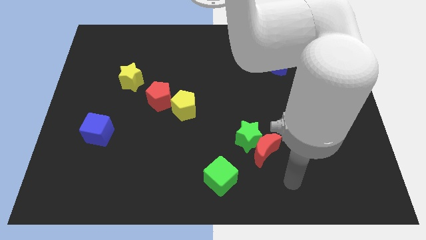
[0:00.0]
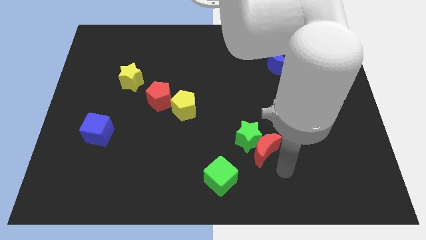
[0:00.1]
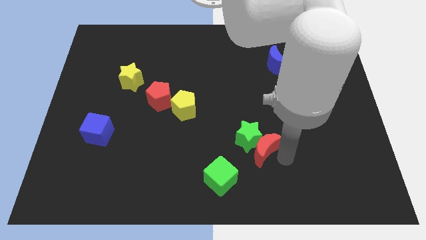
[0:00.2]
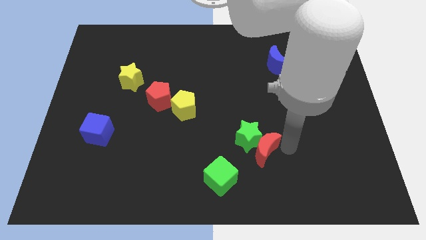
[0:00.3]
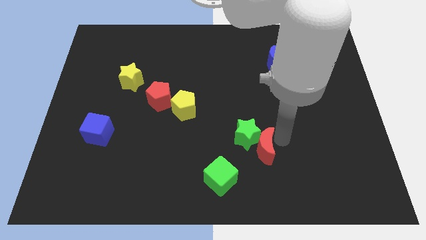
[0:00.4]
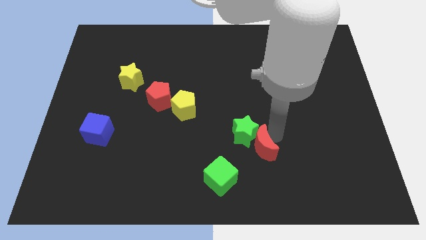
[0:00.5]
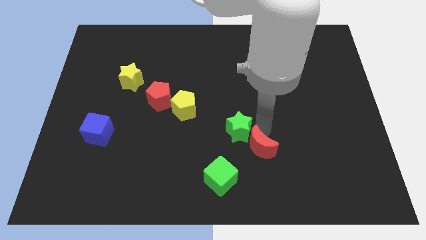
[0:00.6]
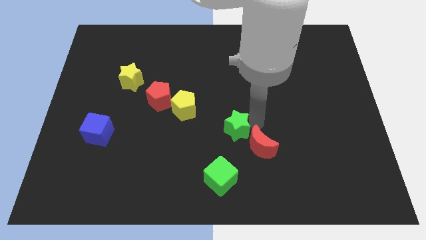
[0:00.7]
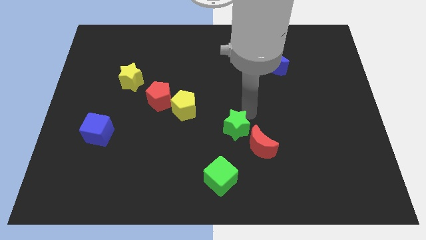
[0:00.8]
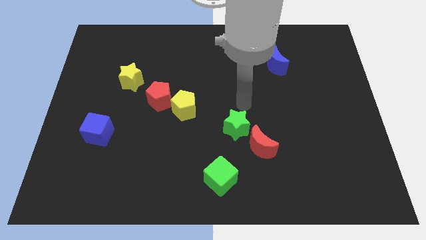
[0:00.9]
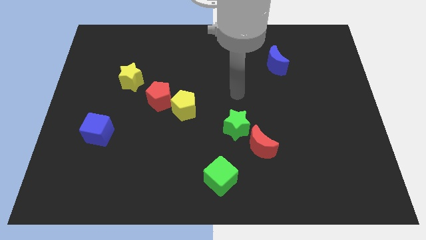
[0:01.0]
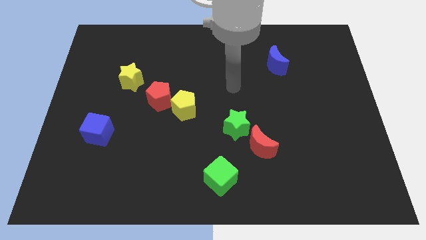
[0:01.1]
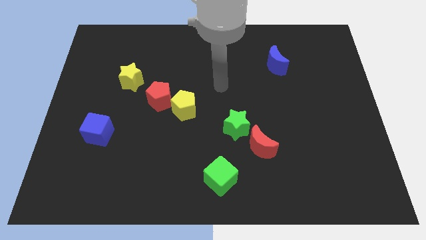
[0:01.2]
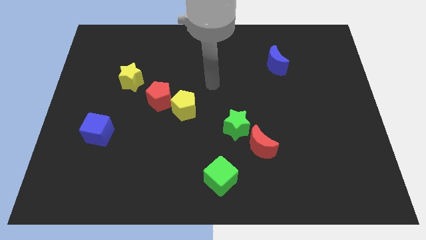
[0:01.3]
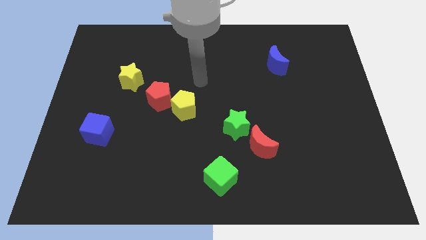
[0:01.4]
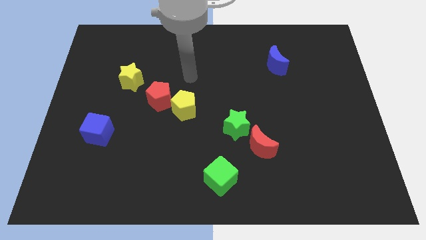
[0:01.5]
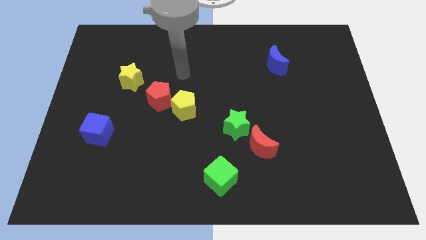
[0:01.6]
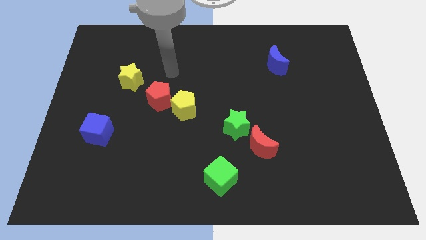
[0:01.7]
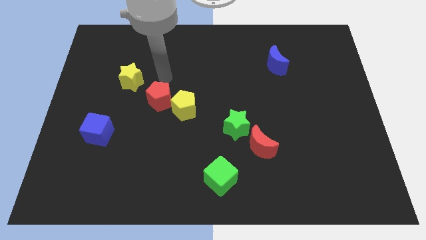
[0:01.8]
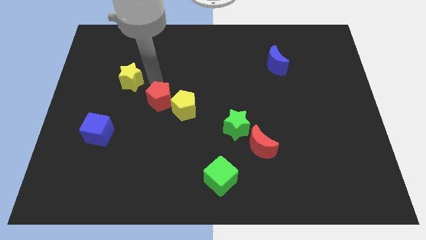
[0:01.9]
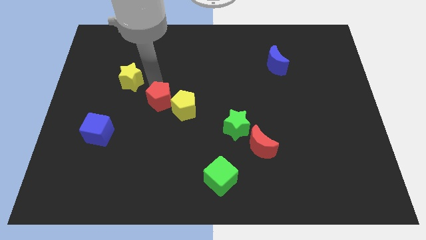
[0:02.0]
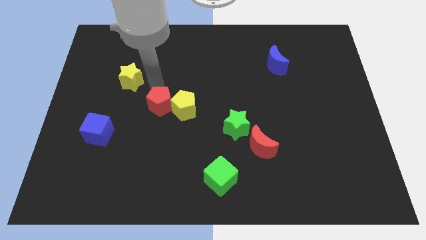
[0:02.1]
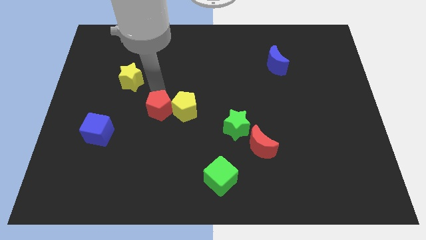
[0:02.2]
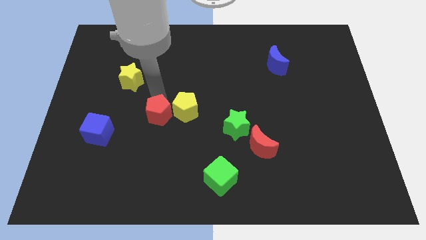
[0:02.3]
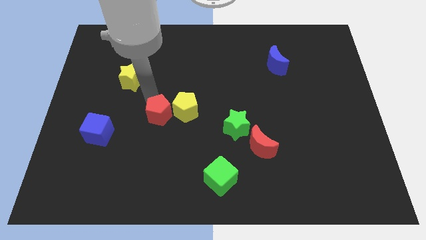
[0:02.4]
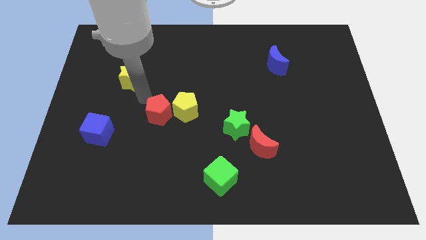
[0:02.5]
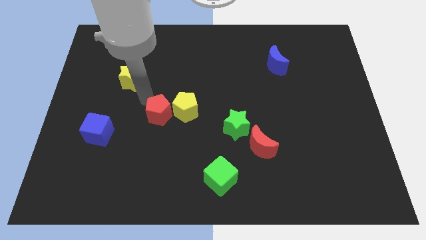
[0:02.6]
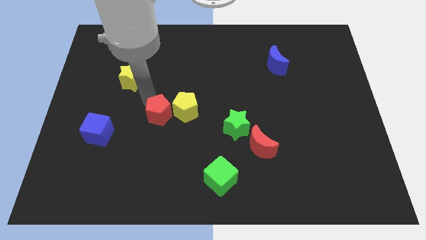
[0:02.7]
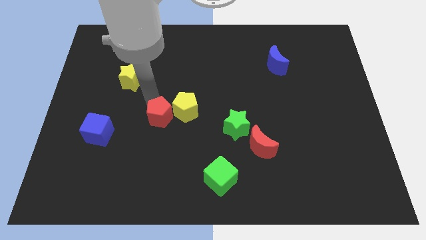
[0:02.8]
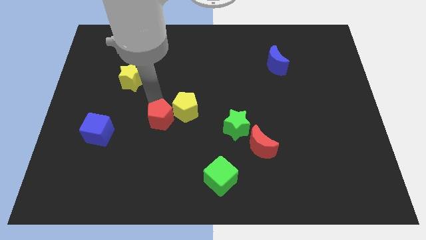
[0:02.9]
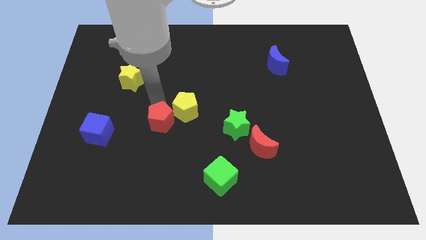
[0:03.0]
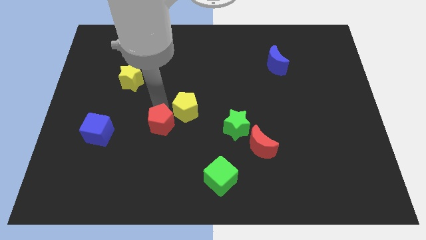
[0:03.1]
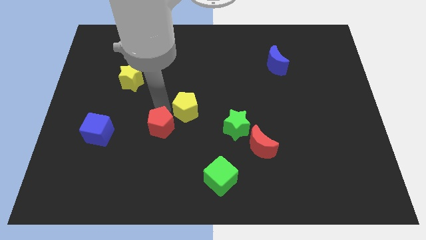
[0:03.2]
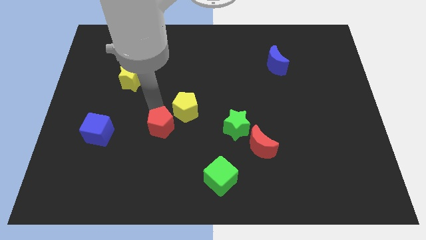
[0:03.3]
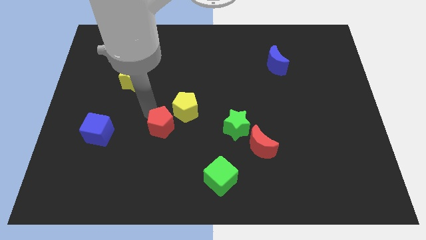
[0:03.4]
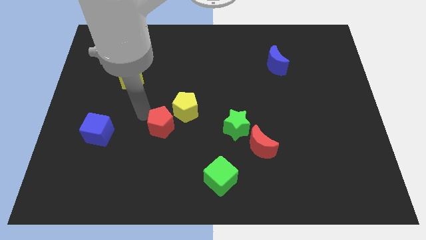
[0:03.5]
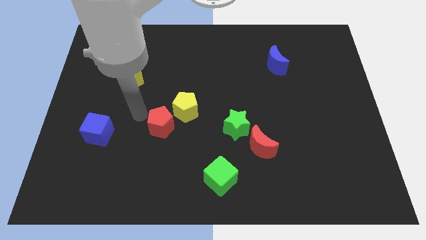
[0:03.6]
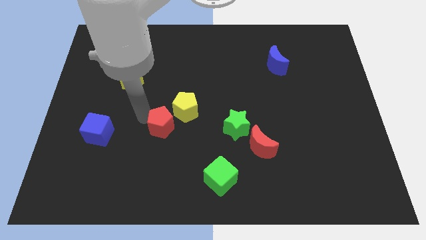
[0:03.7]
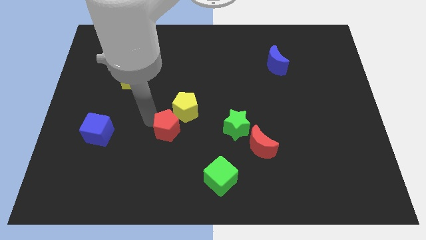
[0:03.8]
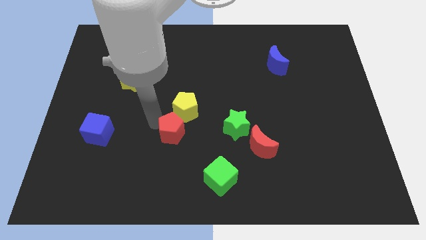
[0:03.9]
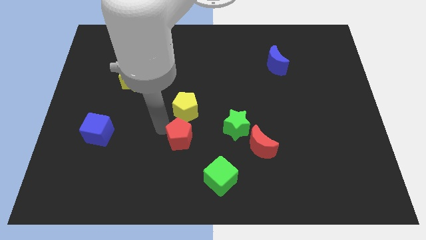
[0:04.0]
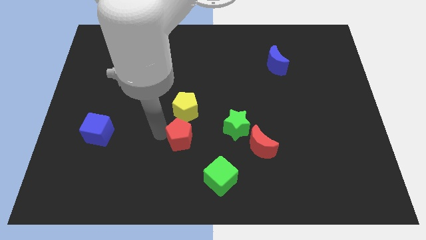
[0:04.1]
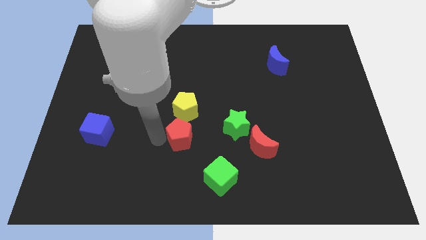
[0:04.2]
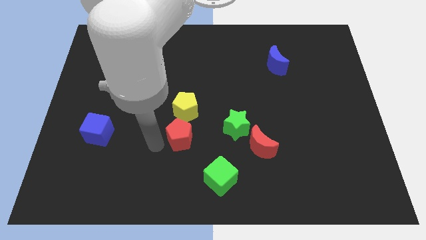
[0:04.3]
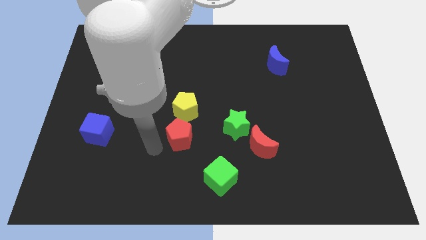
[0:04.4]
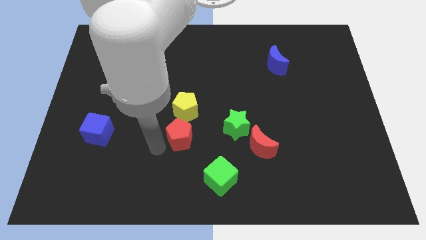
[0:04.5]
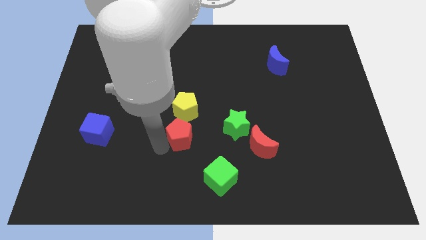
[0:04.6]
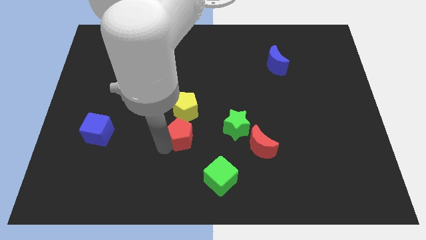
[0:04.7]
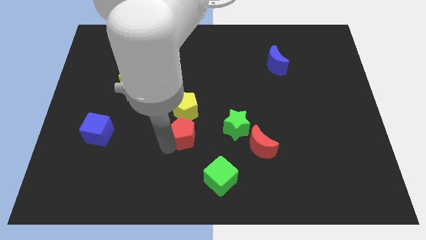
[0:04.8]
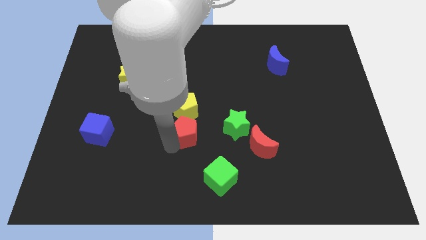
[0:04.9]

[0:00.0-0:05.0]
push the red pentagon to the bottom right of the yellow pentagon

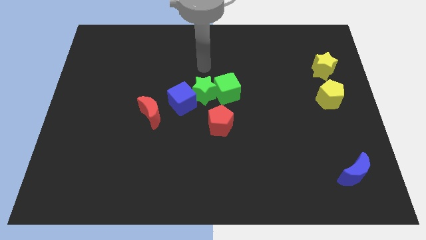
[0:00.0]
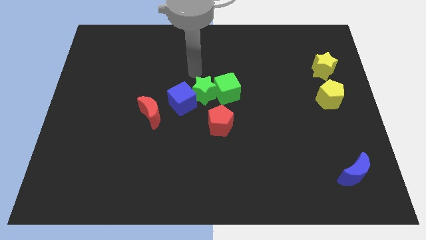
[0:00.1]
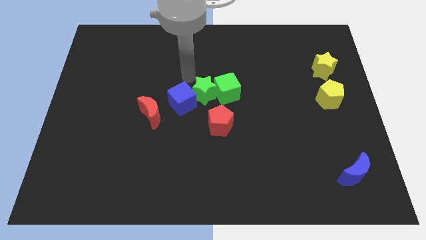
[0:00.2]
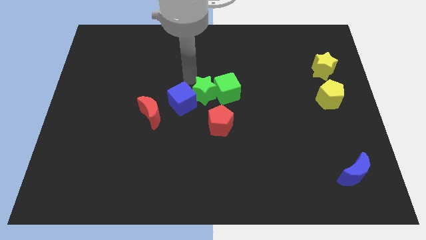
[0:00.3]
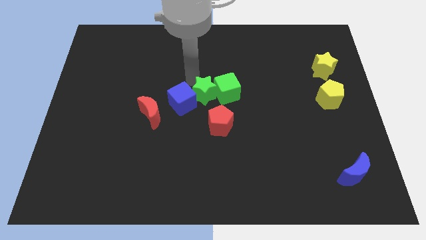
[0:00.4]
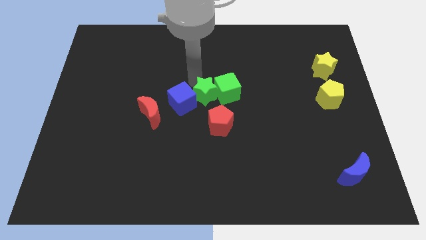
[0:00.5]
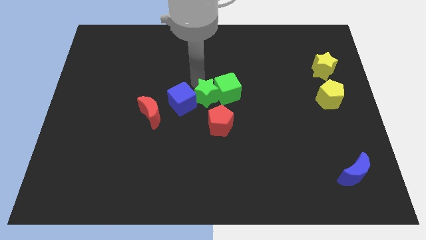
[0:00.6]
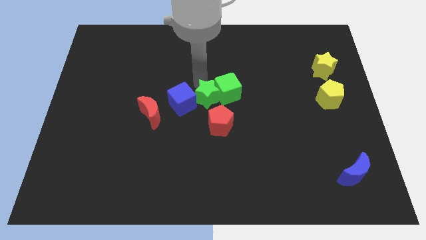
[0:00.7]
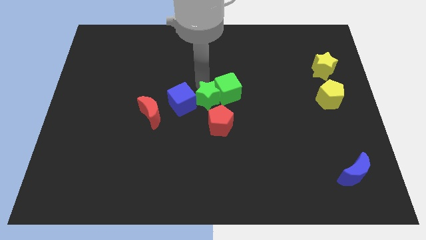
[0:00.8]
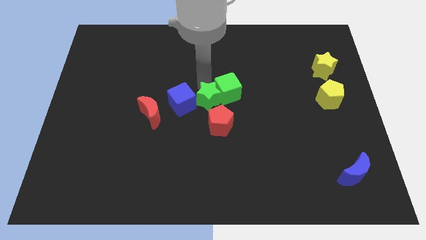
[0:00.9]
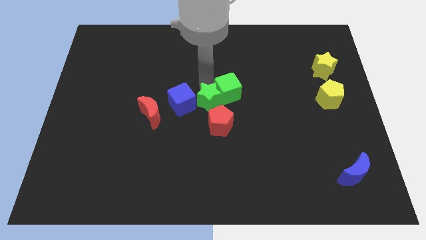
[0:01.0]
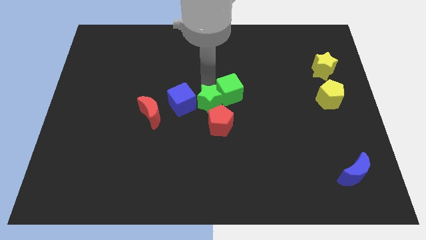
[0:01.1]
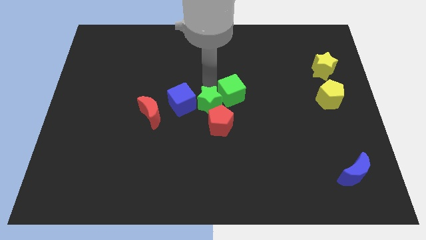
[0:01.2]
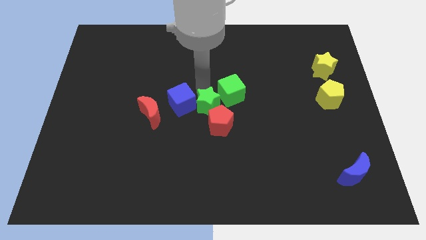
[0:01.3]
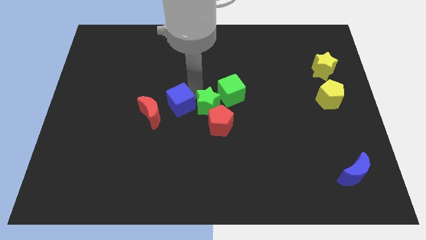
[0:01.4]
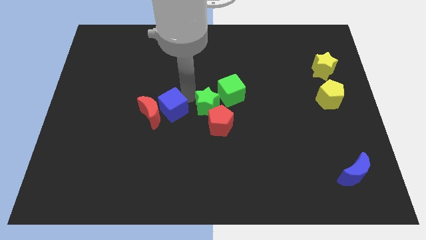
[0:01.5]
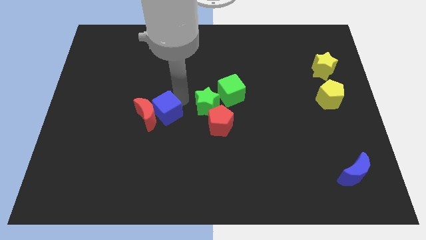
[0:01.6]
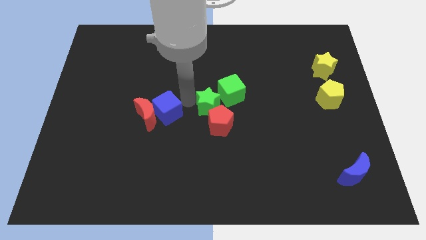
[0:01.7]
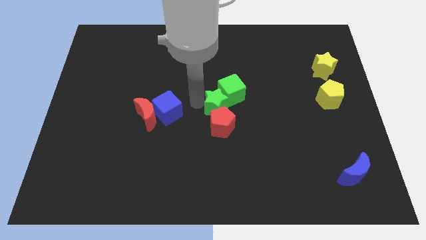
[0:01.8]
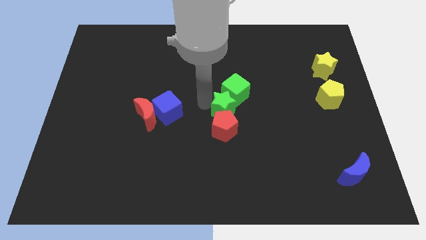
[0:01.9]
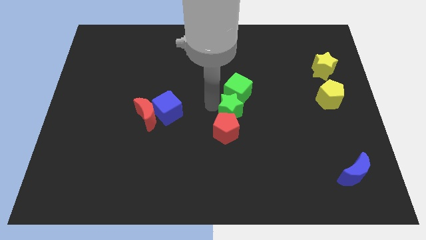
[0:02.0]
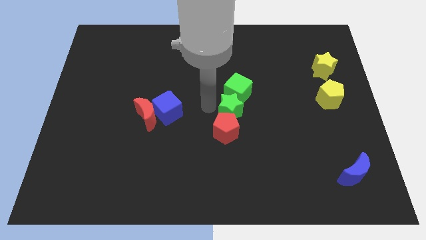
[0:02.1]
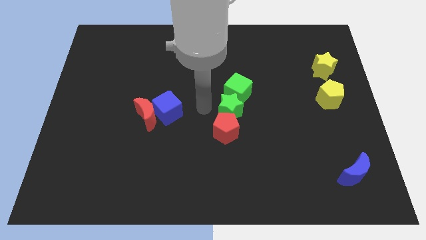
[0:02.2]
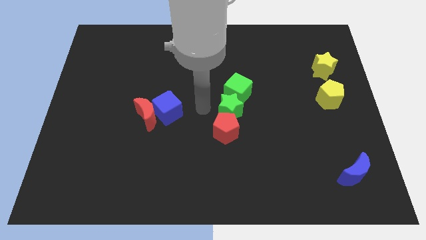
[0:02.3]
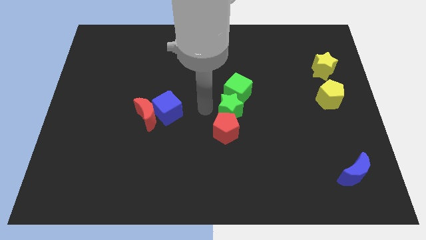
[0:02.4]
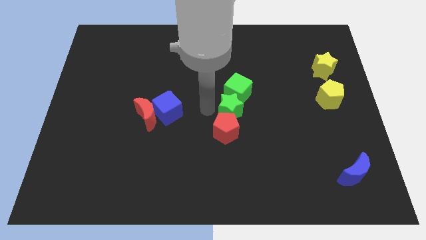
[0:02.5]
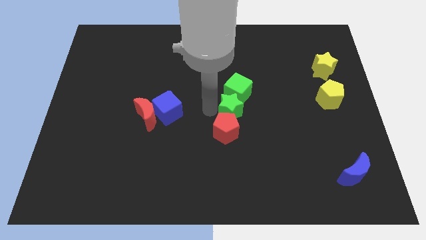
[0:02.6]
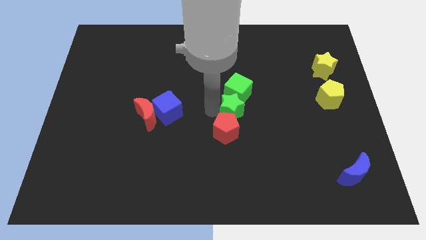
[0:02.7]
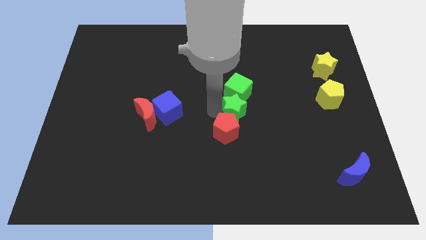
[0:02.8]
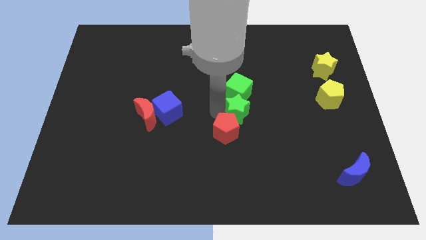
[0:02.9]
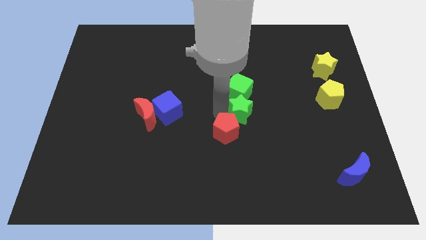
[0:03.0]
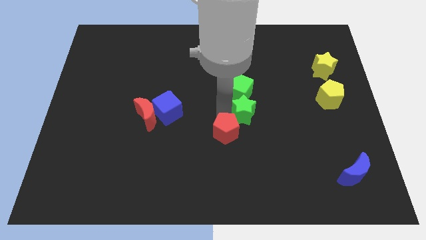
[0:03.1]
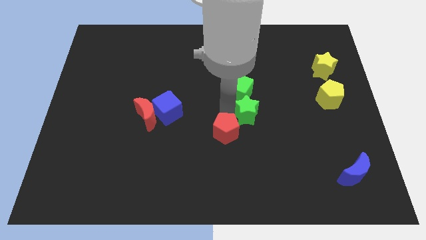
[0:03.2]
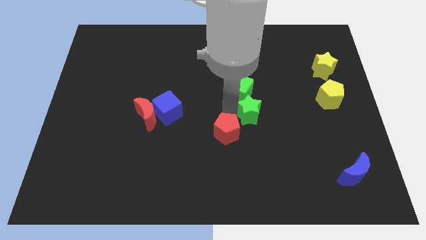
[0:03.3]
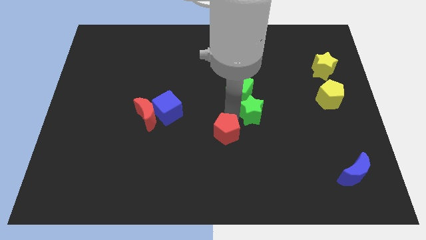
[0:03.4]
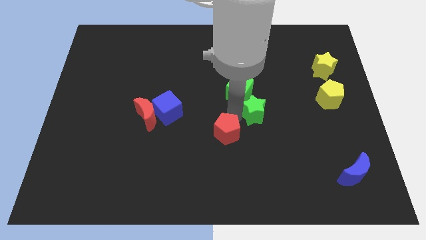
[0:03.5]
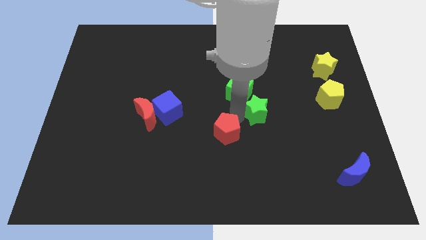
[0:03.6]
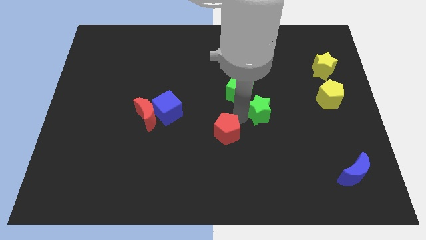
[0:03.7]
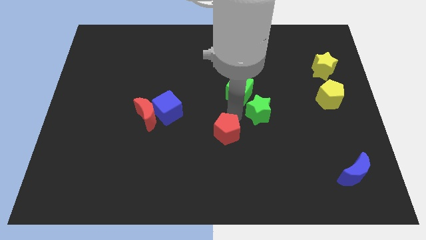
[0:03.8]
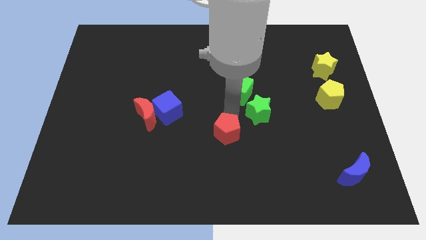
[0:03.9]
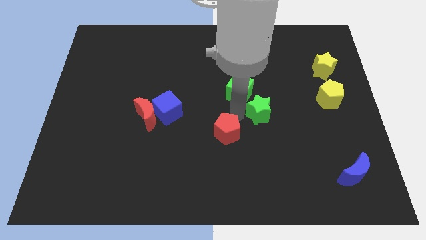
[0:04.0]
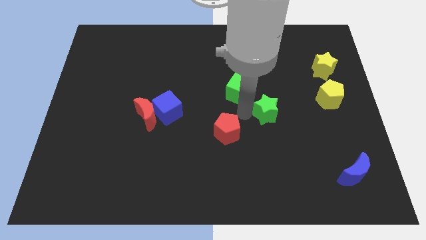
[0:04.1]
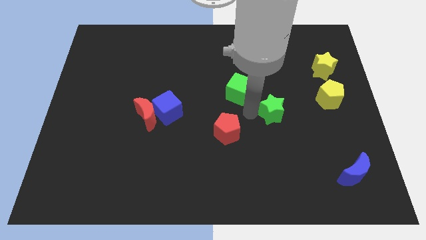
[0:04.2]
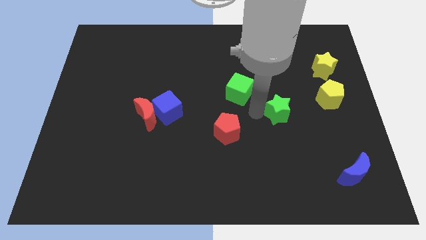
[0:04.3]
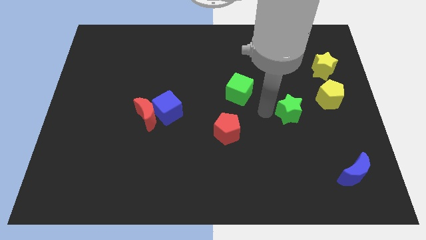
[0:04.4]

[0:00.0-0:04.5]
slide the green star diagonally down and to the left of the yellow pentagon
